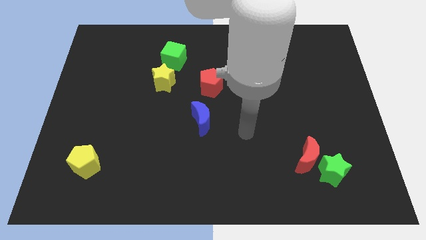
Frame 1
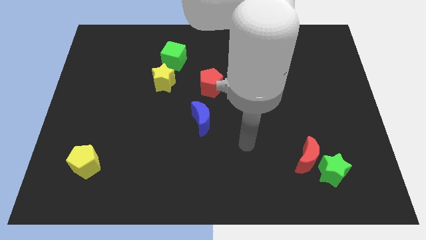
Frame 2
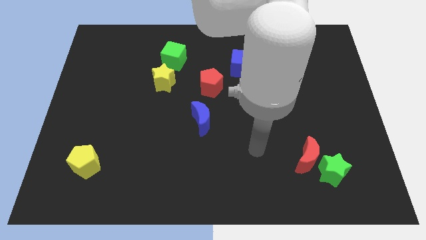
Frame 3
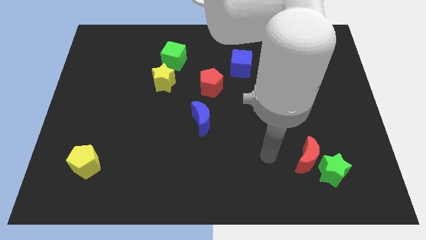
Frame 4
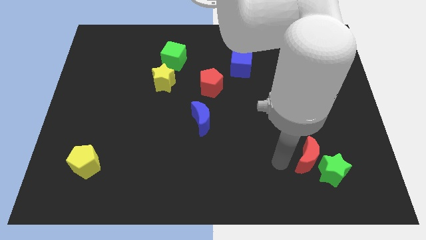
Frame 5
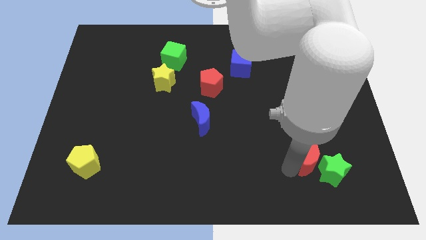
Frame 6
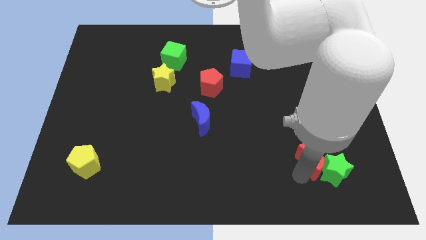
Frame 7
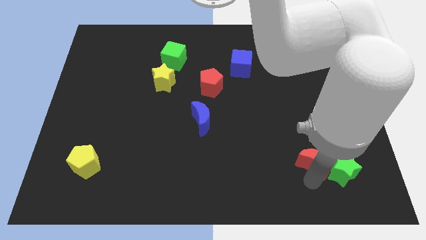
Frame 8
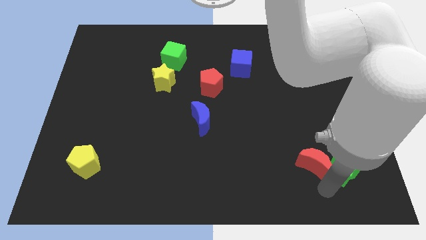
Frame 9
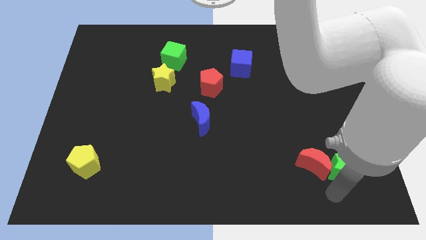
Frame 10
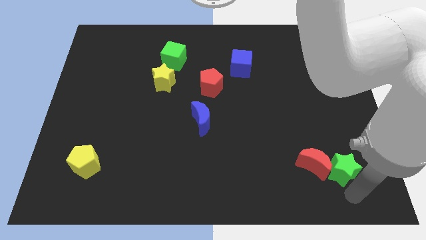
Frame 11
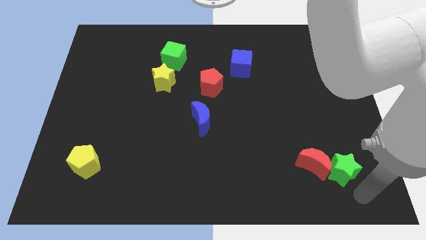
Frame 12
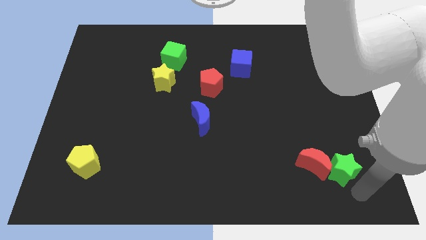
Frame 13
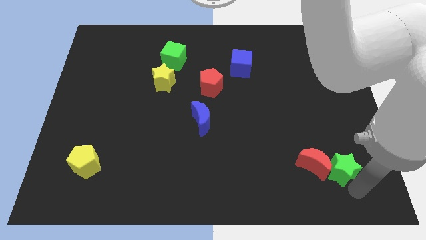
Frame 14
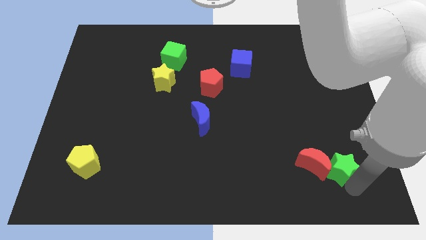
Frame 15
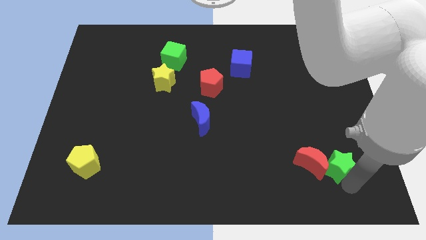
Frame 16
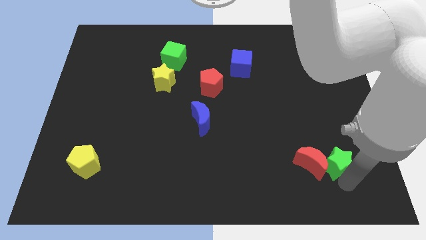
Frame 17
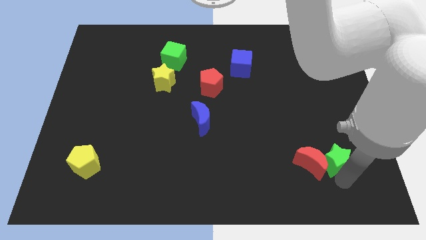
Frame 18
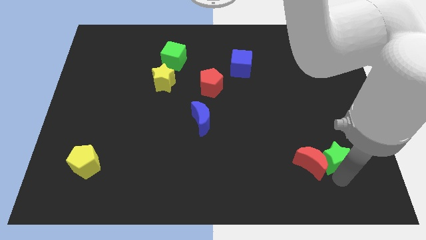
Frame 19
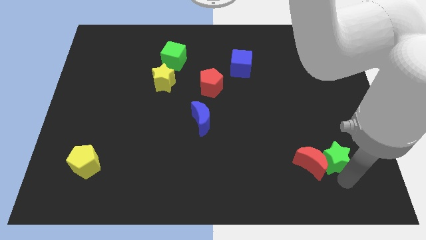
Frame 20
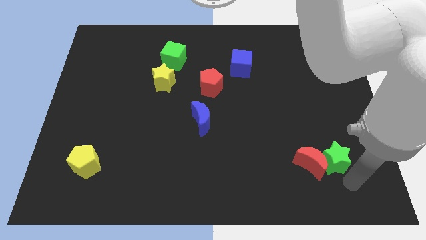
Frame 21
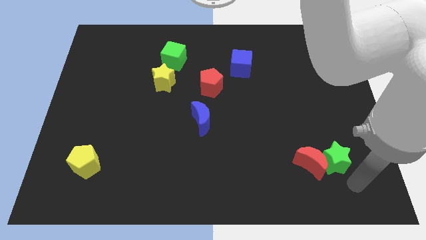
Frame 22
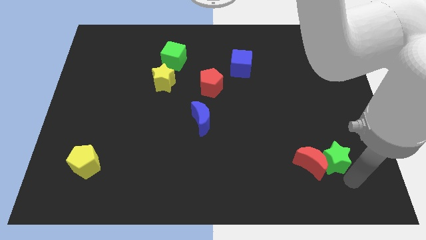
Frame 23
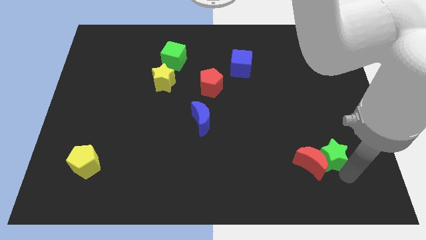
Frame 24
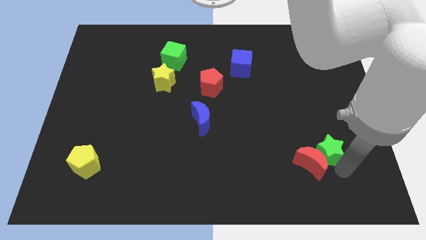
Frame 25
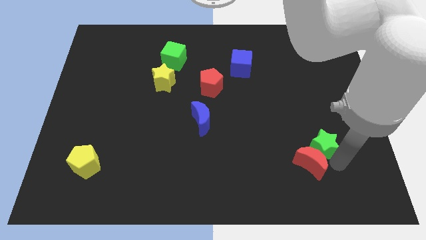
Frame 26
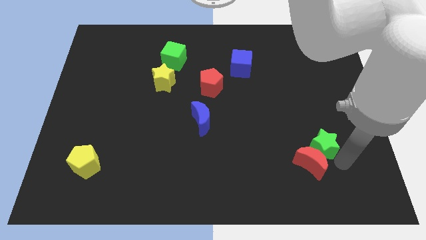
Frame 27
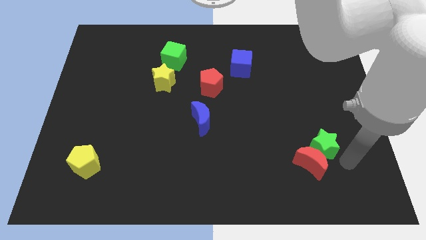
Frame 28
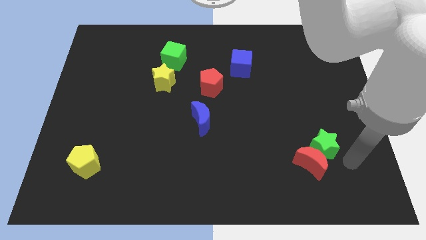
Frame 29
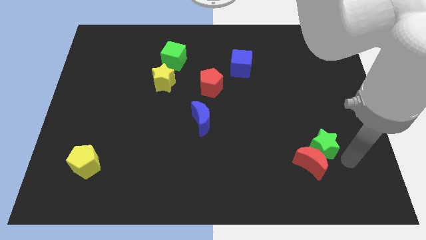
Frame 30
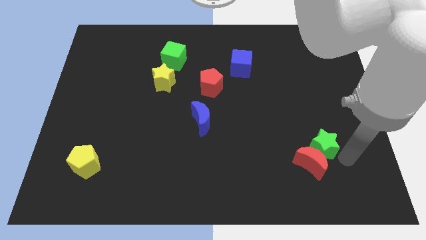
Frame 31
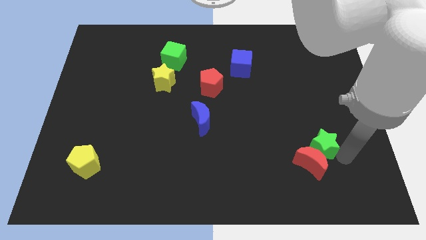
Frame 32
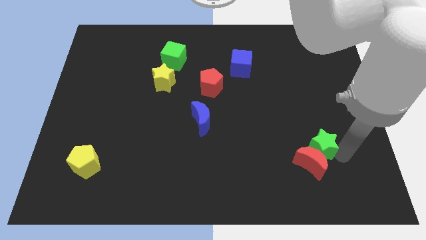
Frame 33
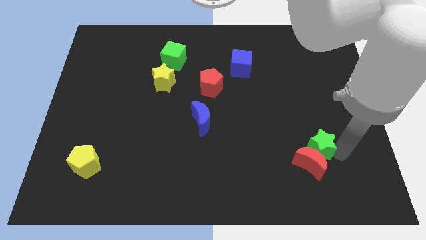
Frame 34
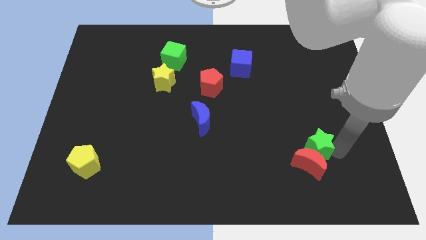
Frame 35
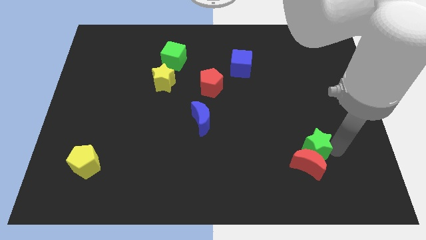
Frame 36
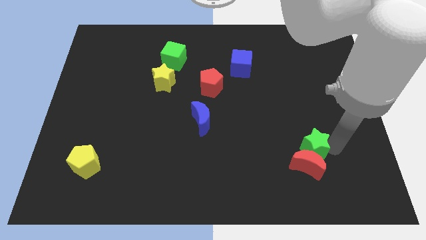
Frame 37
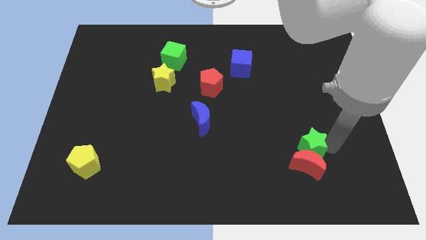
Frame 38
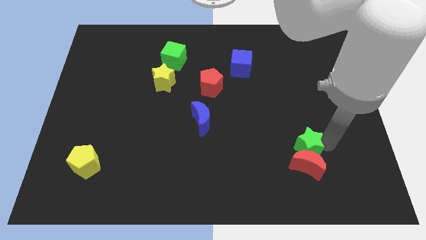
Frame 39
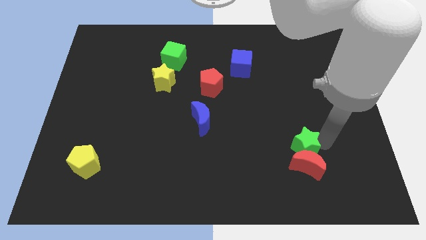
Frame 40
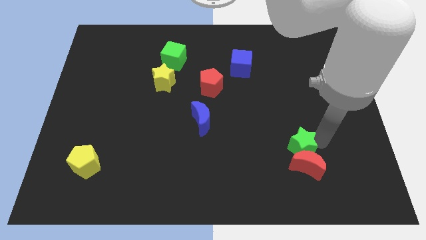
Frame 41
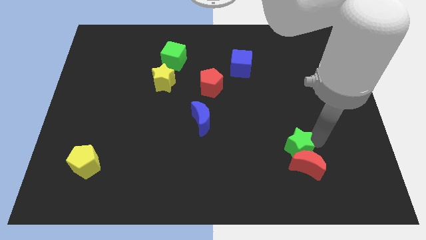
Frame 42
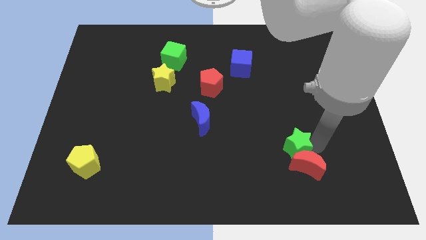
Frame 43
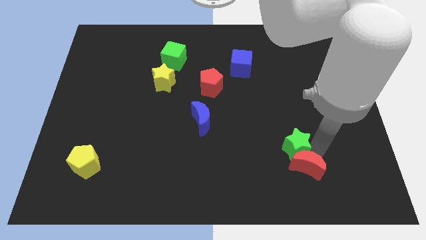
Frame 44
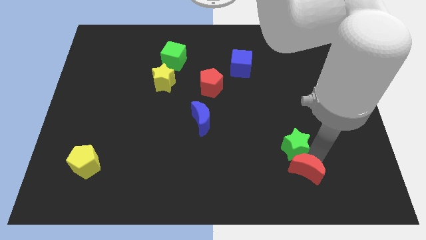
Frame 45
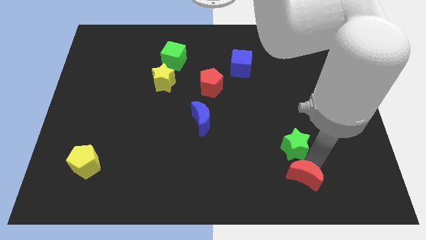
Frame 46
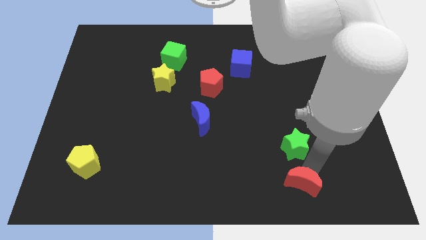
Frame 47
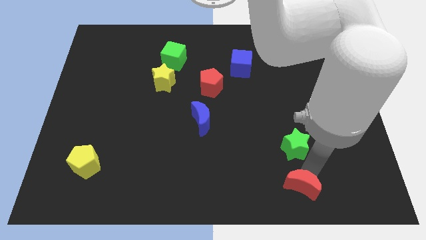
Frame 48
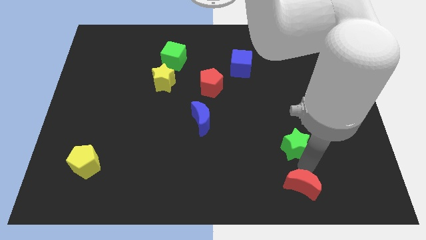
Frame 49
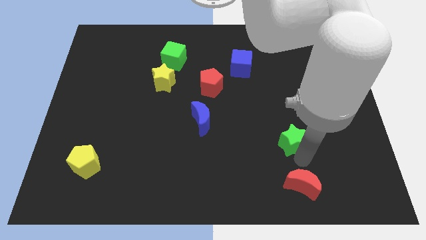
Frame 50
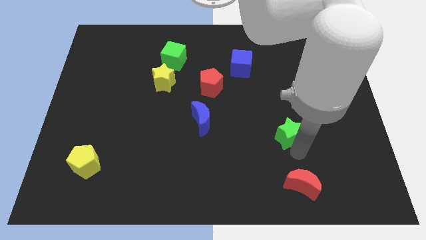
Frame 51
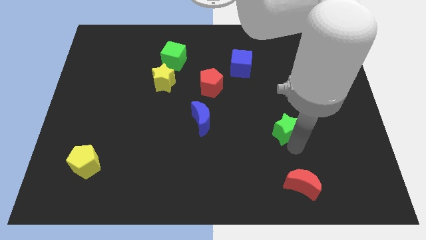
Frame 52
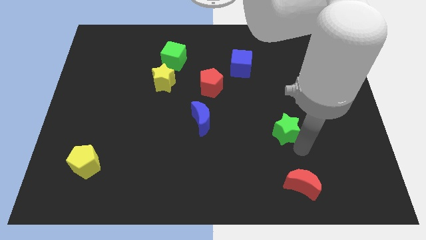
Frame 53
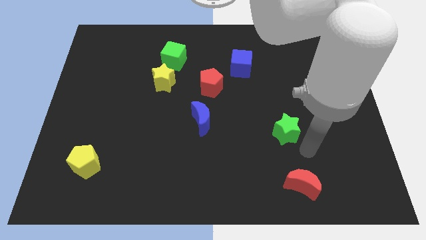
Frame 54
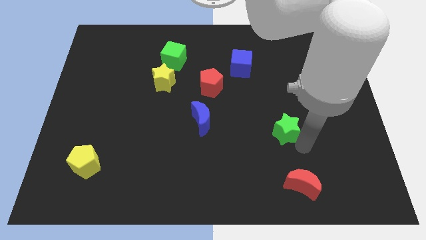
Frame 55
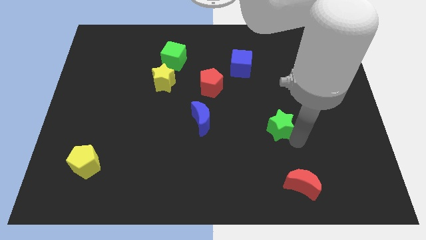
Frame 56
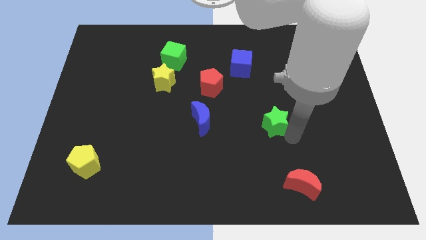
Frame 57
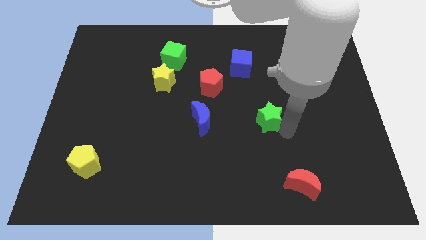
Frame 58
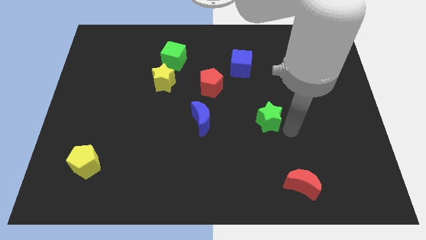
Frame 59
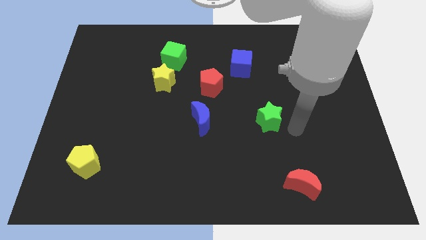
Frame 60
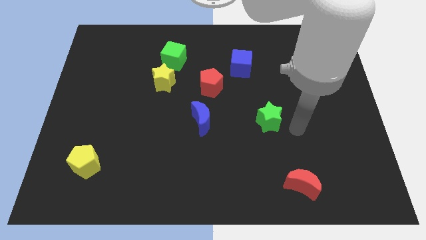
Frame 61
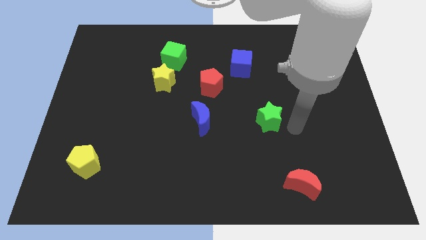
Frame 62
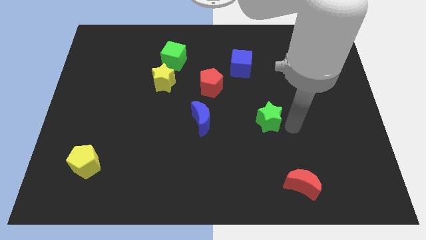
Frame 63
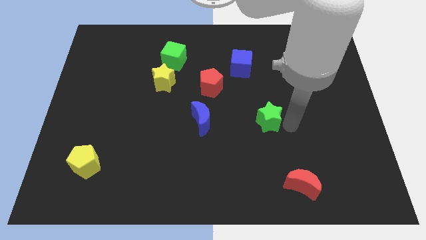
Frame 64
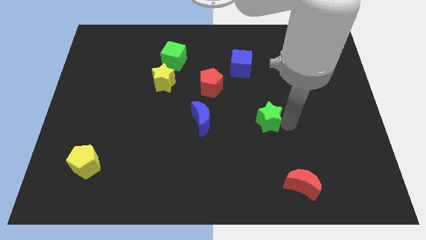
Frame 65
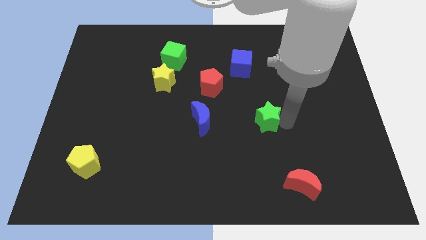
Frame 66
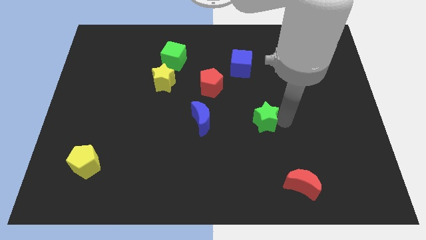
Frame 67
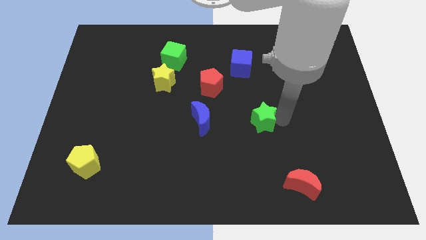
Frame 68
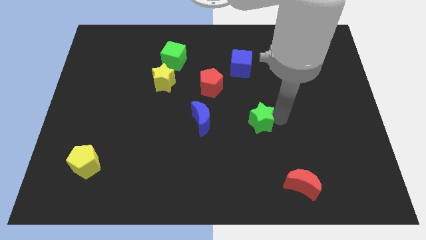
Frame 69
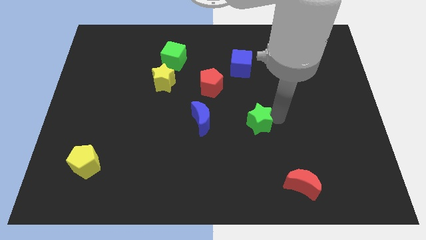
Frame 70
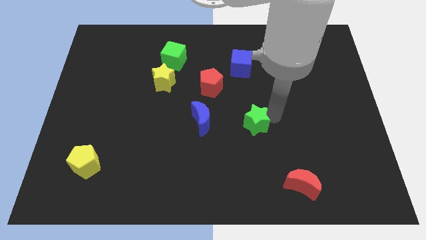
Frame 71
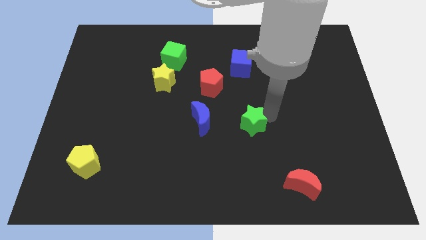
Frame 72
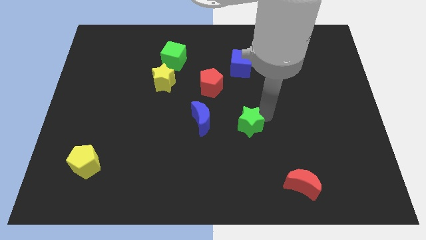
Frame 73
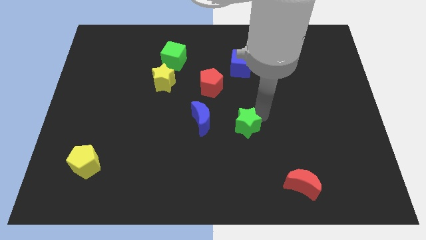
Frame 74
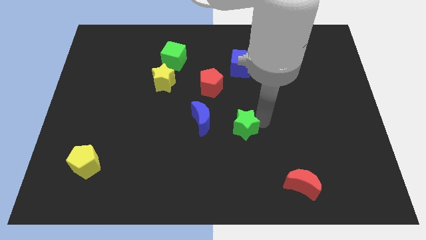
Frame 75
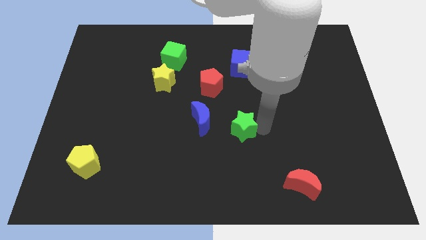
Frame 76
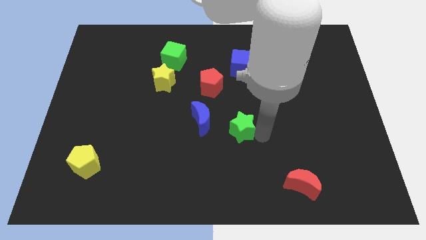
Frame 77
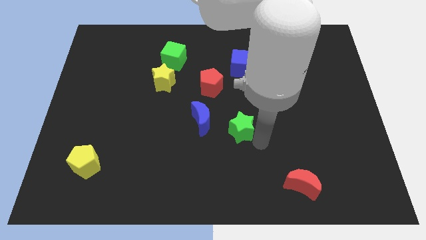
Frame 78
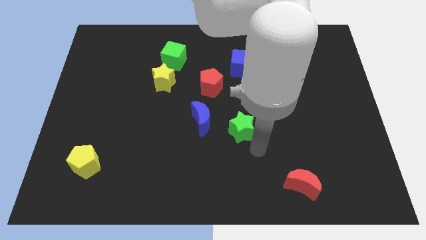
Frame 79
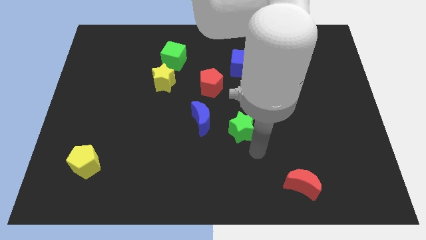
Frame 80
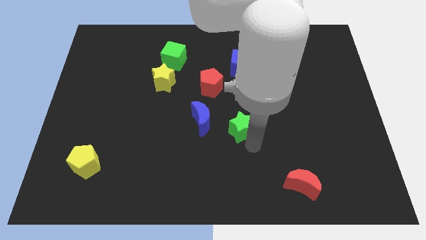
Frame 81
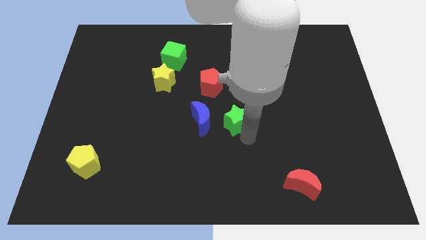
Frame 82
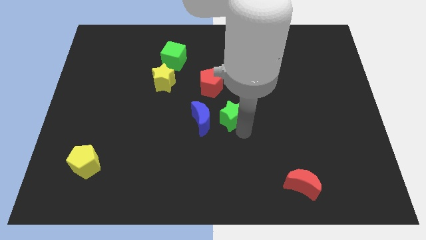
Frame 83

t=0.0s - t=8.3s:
push the green star diagonally up and to the right of the blue moon
